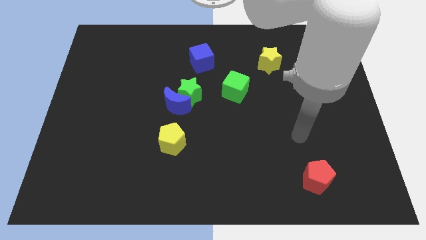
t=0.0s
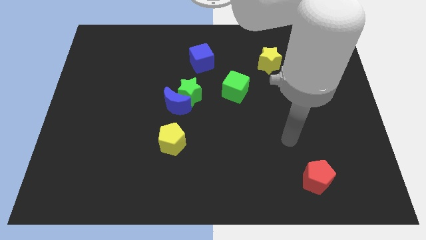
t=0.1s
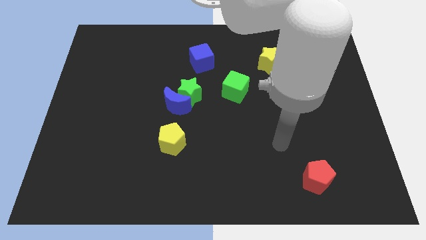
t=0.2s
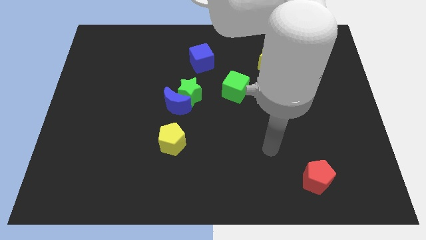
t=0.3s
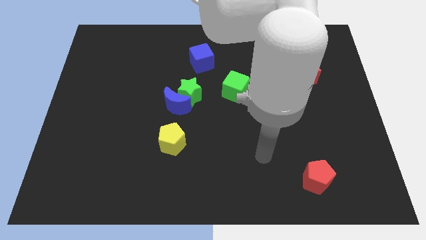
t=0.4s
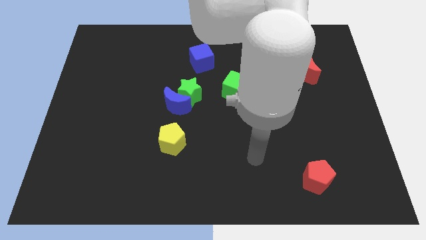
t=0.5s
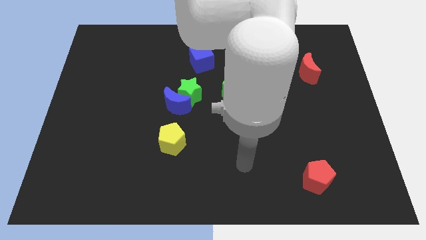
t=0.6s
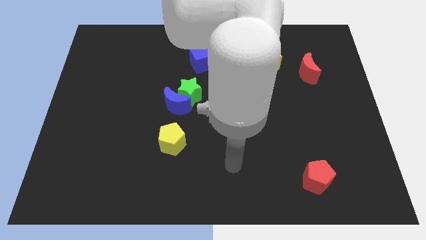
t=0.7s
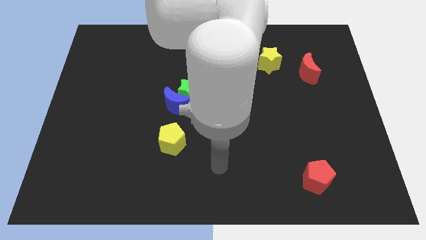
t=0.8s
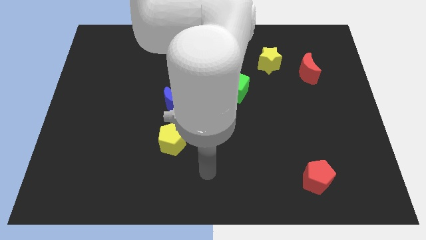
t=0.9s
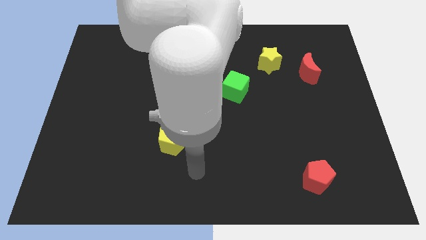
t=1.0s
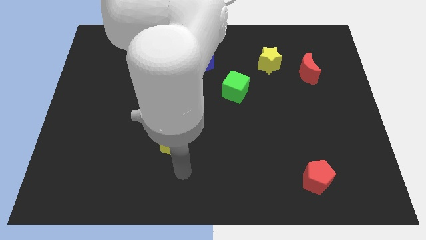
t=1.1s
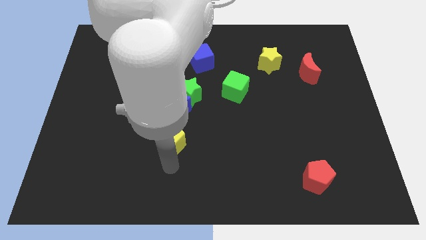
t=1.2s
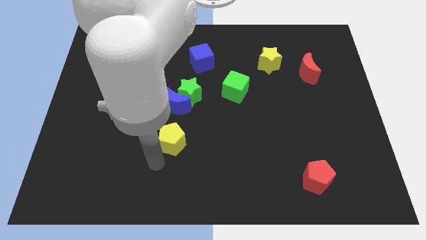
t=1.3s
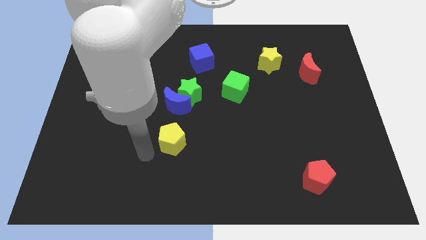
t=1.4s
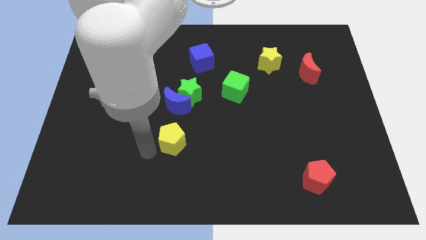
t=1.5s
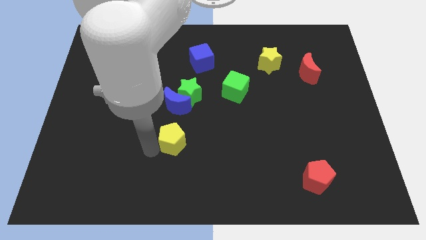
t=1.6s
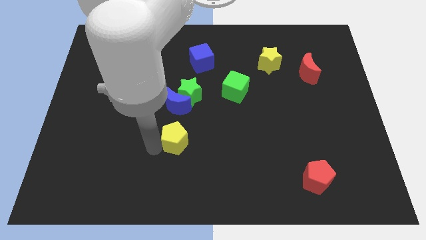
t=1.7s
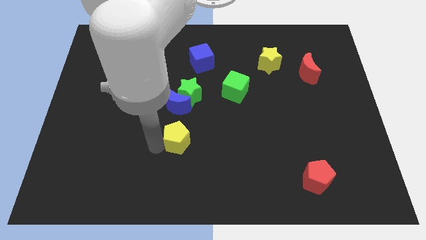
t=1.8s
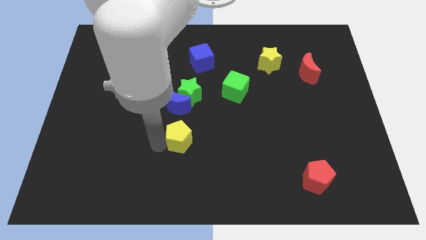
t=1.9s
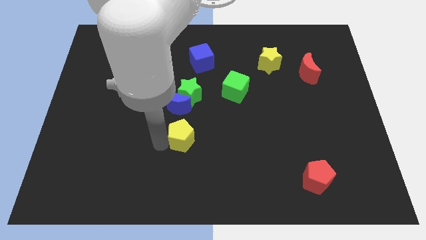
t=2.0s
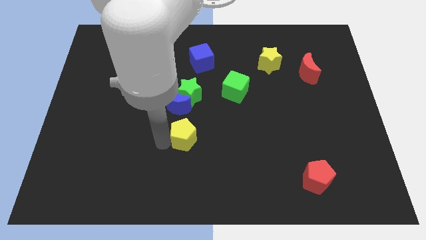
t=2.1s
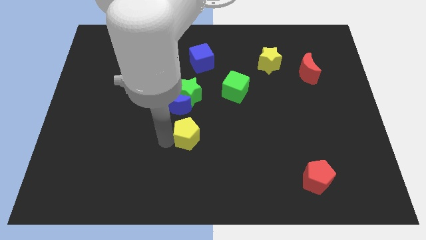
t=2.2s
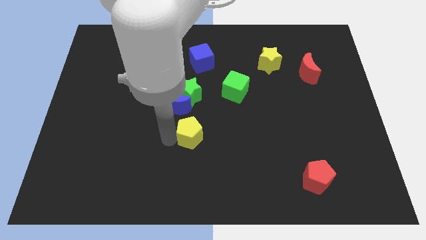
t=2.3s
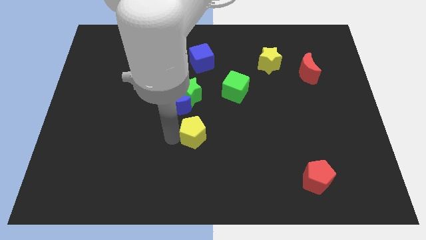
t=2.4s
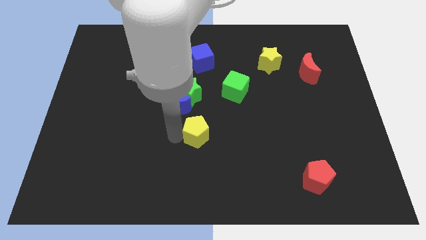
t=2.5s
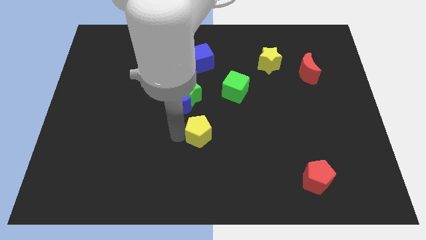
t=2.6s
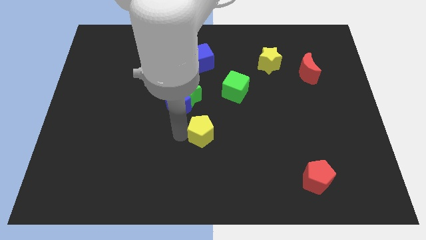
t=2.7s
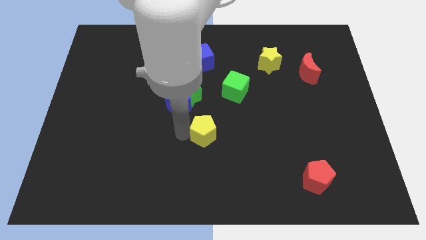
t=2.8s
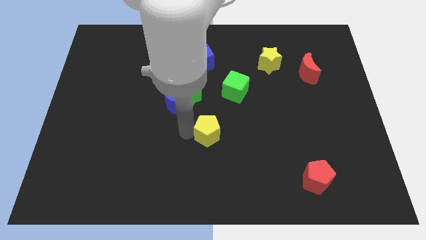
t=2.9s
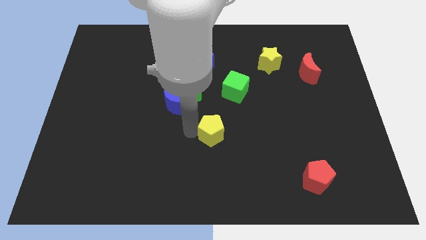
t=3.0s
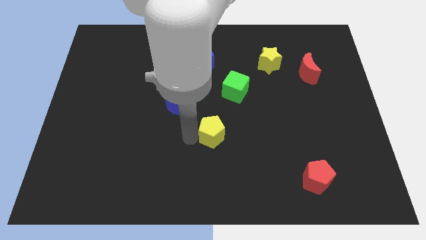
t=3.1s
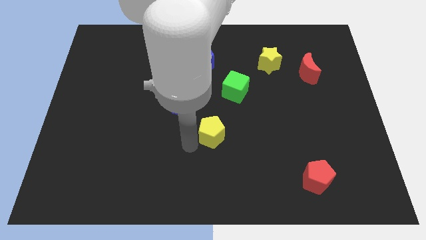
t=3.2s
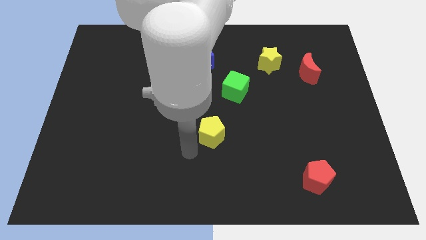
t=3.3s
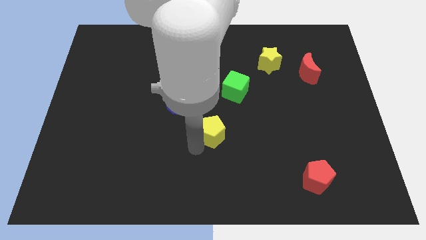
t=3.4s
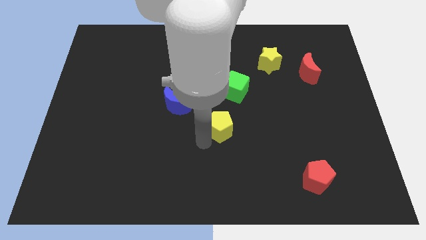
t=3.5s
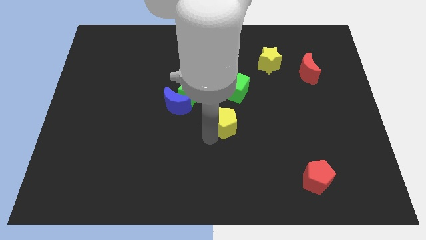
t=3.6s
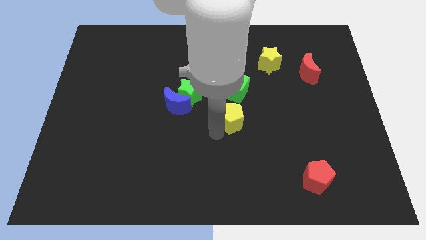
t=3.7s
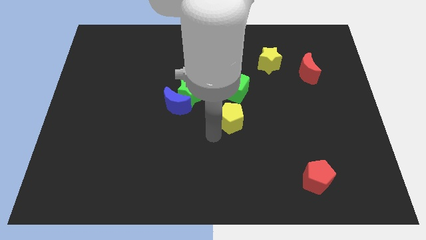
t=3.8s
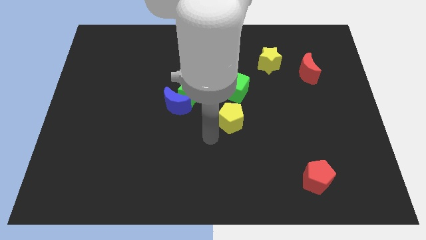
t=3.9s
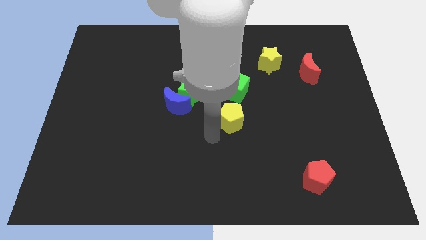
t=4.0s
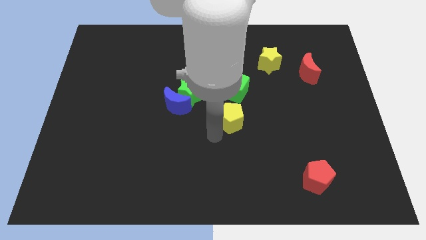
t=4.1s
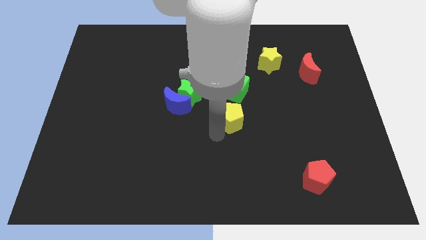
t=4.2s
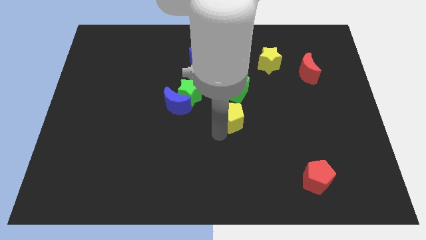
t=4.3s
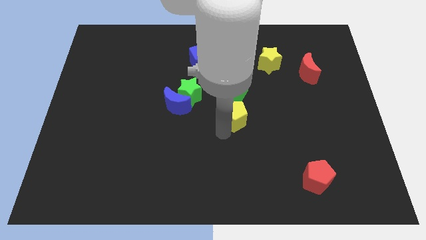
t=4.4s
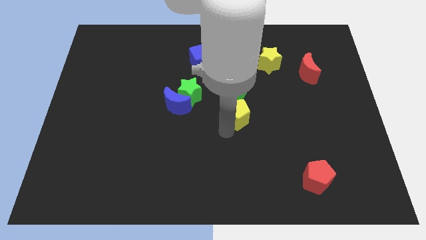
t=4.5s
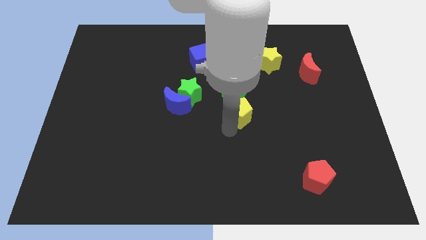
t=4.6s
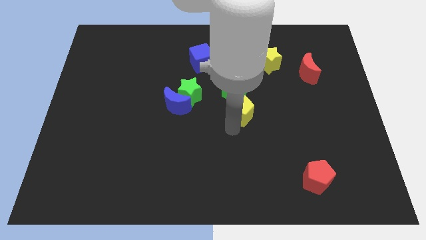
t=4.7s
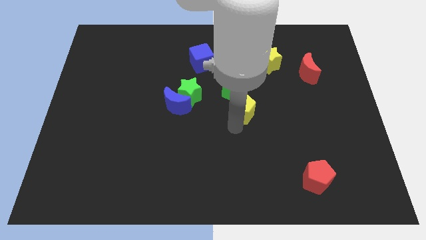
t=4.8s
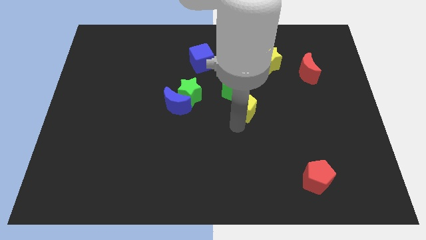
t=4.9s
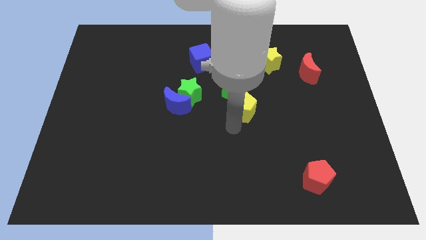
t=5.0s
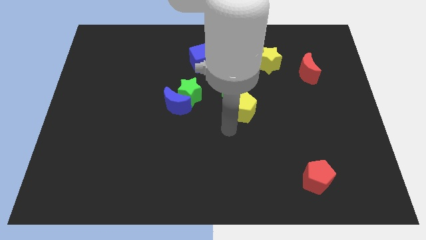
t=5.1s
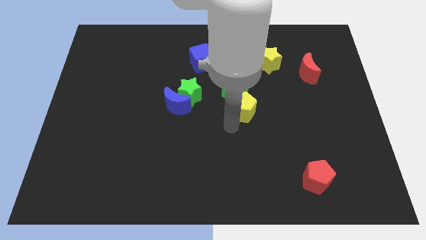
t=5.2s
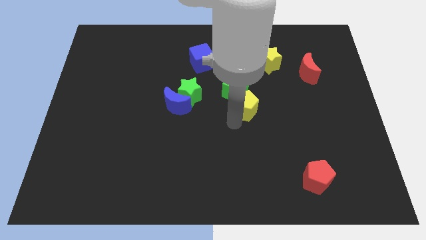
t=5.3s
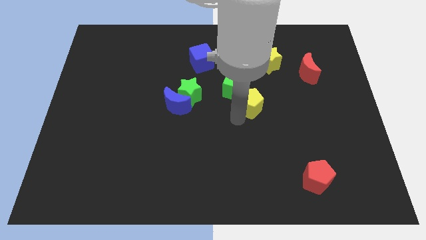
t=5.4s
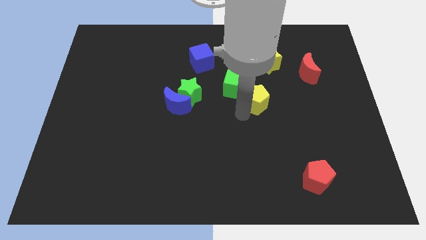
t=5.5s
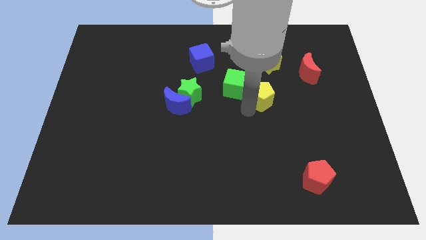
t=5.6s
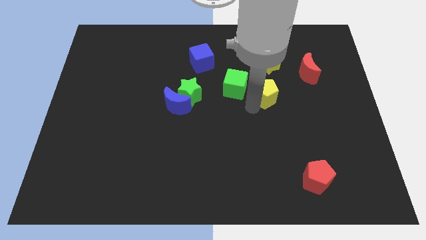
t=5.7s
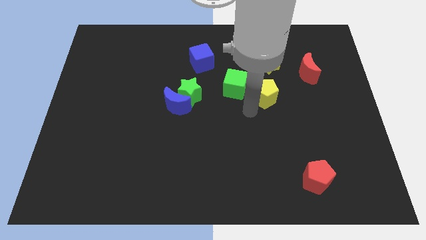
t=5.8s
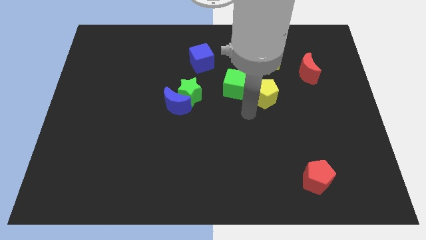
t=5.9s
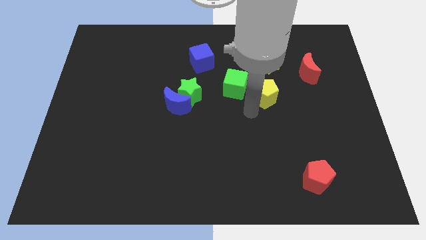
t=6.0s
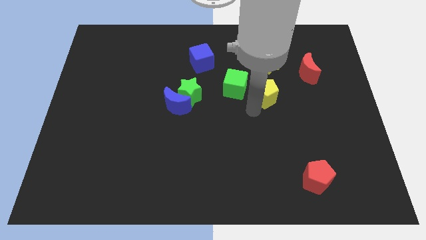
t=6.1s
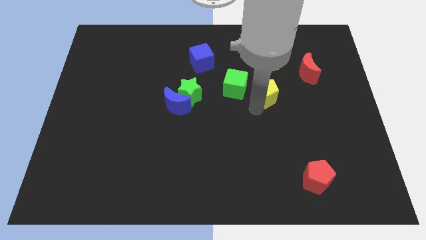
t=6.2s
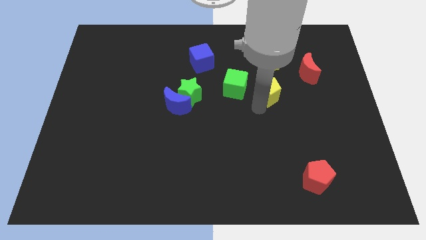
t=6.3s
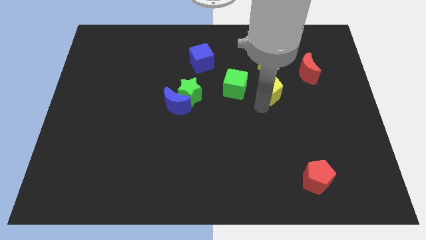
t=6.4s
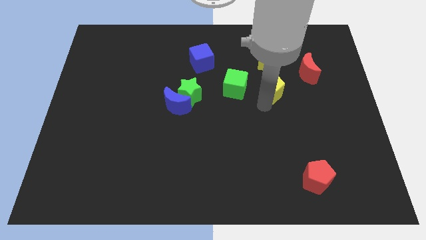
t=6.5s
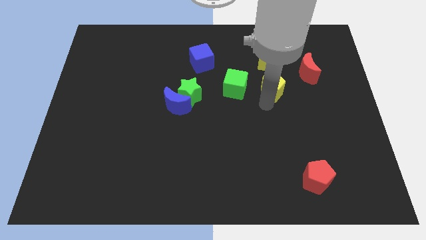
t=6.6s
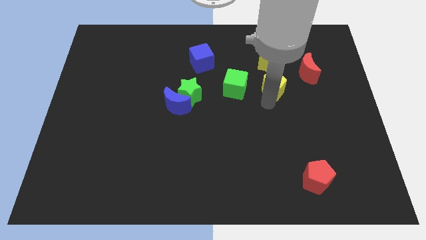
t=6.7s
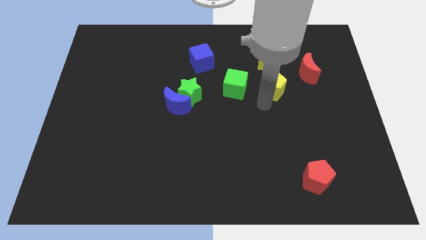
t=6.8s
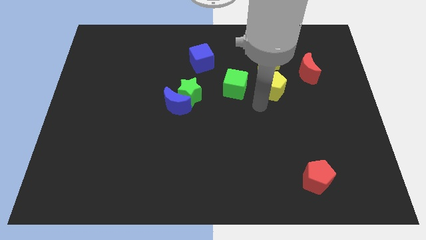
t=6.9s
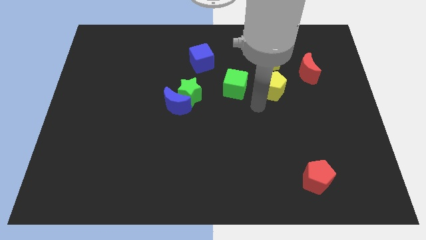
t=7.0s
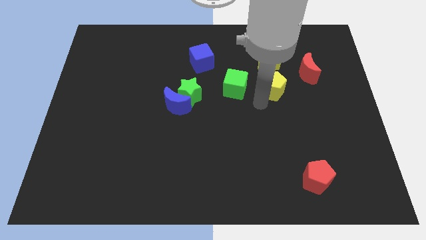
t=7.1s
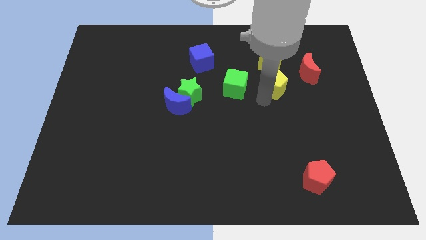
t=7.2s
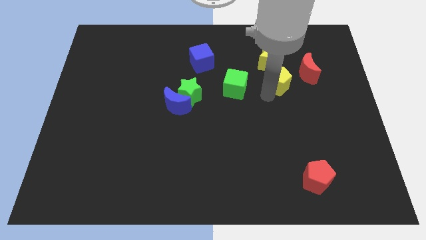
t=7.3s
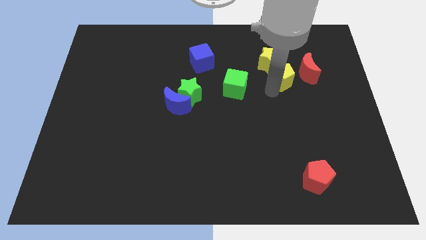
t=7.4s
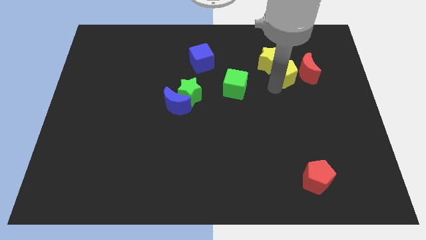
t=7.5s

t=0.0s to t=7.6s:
push the yellow pentagon next to the red moon

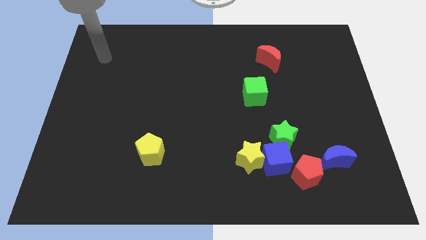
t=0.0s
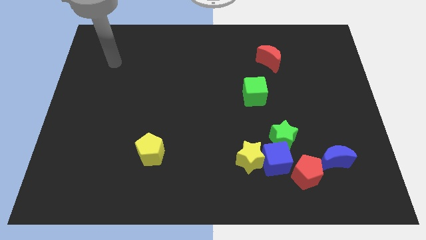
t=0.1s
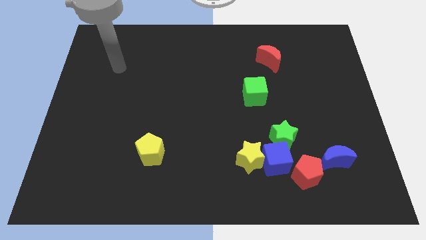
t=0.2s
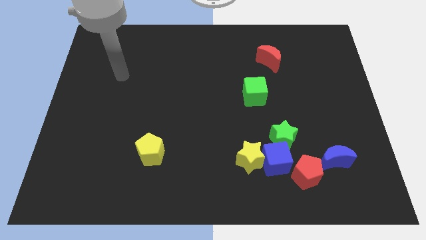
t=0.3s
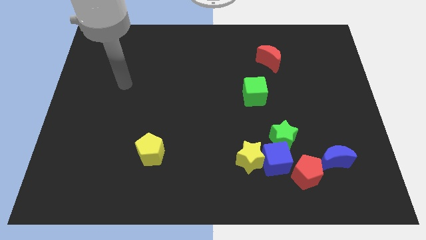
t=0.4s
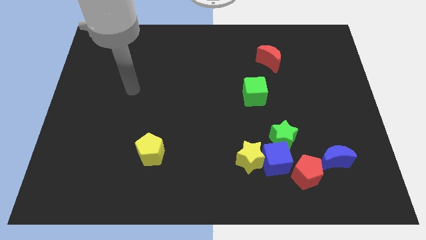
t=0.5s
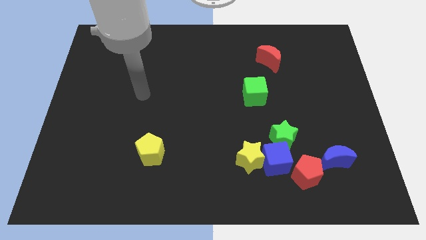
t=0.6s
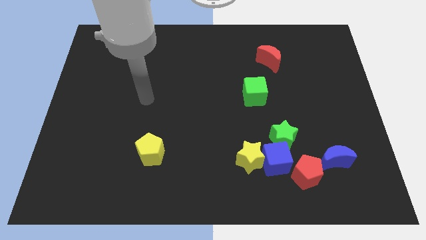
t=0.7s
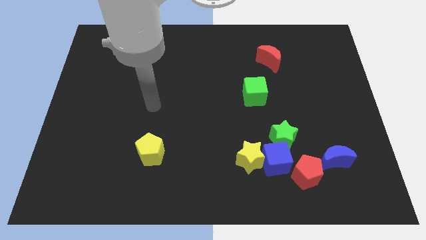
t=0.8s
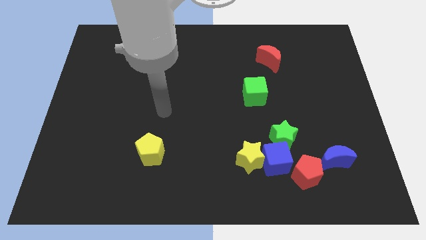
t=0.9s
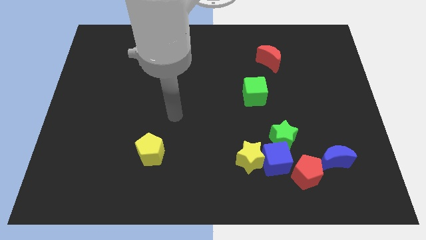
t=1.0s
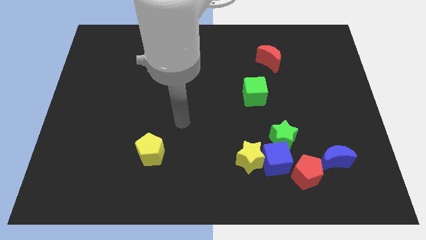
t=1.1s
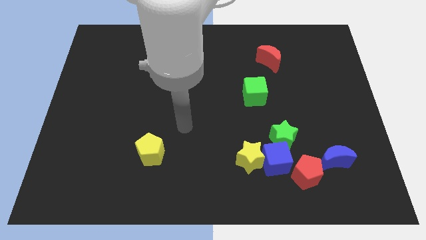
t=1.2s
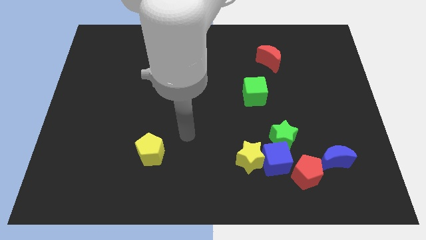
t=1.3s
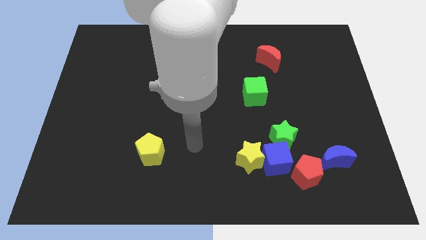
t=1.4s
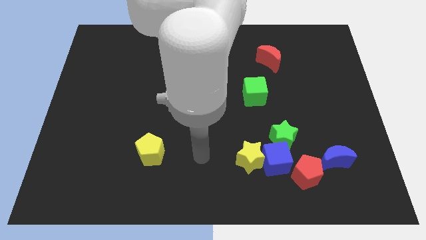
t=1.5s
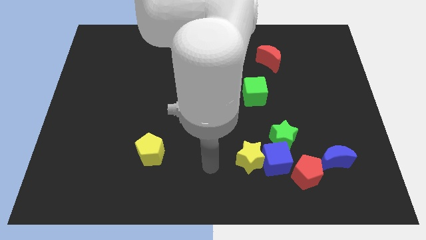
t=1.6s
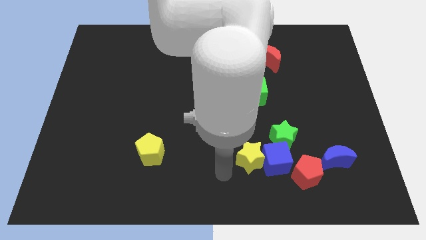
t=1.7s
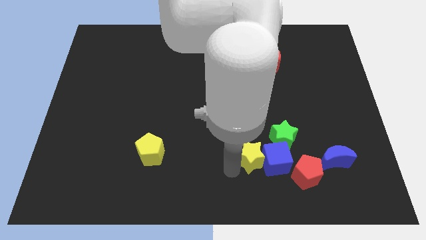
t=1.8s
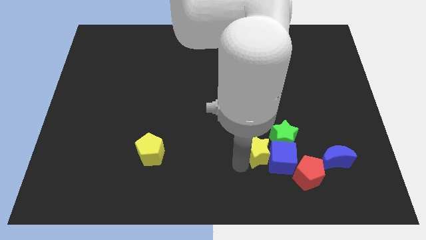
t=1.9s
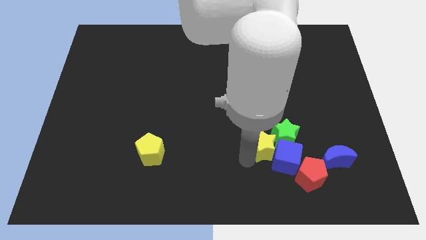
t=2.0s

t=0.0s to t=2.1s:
put the yellow star to the green star
